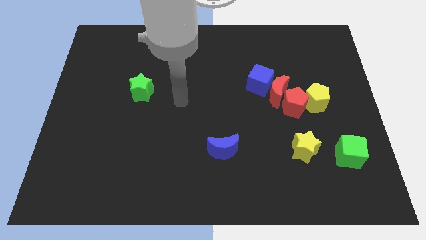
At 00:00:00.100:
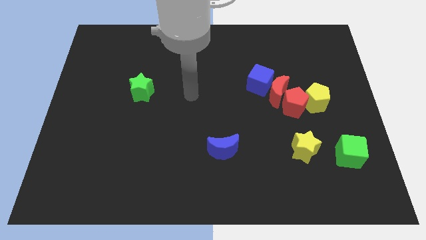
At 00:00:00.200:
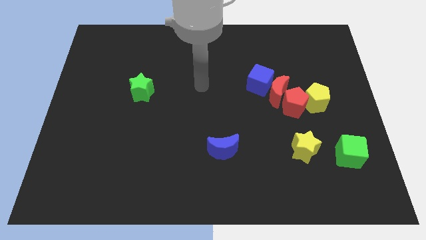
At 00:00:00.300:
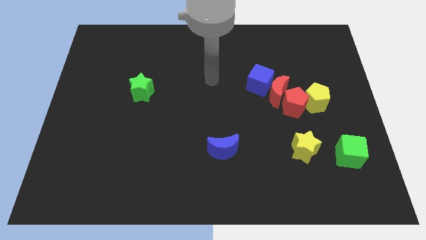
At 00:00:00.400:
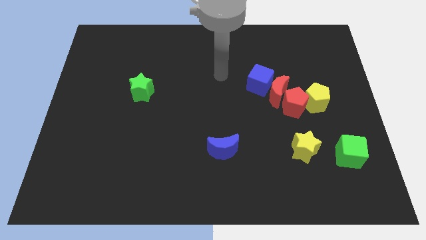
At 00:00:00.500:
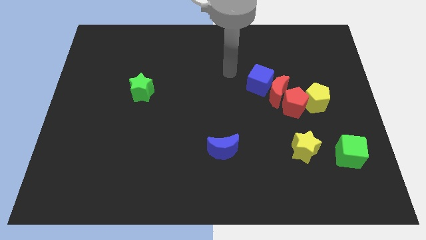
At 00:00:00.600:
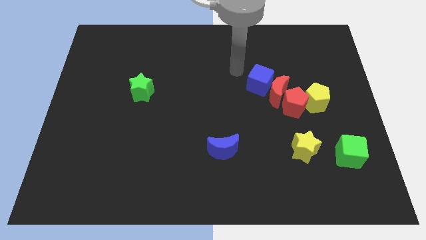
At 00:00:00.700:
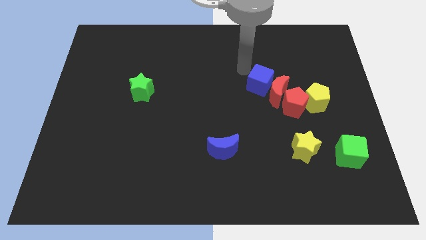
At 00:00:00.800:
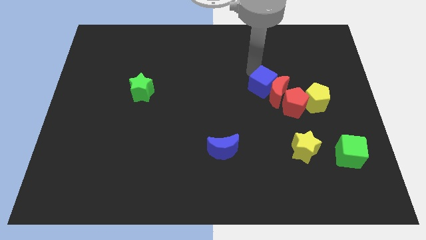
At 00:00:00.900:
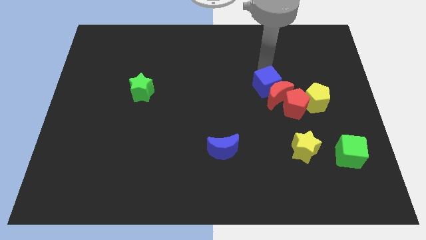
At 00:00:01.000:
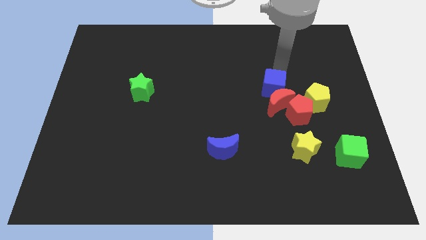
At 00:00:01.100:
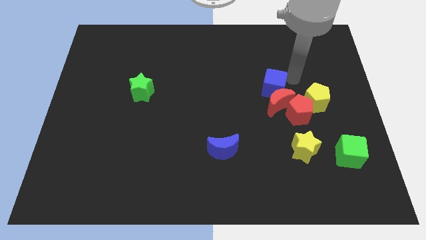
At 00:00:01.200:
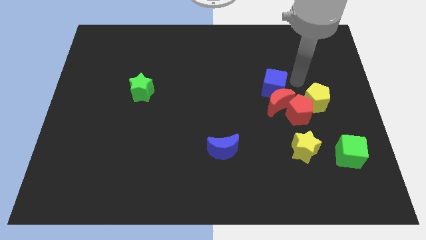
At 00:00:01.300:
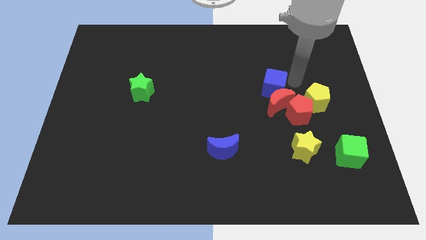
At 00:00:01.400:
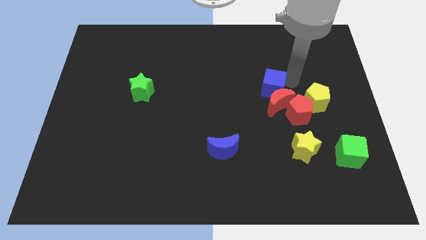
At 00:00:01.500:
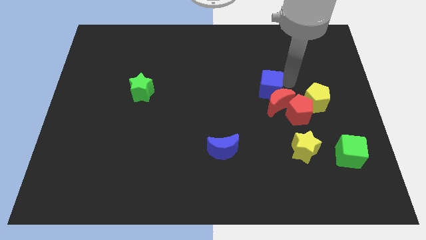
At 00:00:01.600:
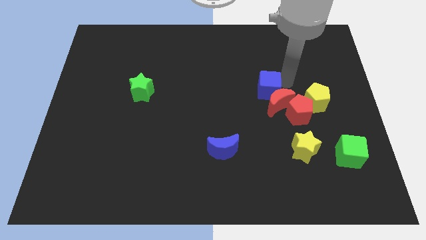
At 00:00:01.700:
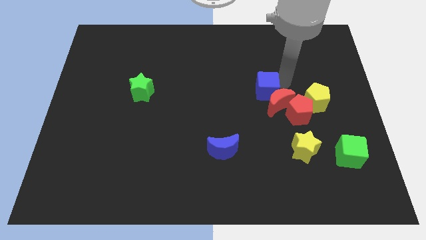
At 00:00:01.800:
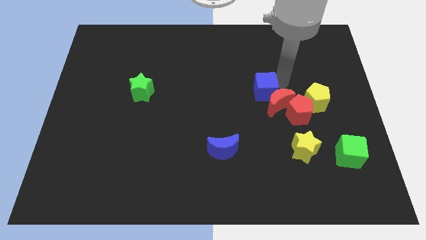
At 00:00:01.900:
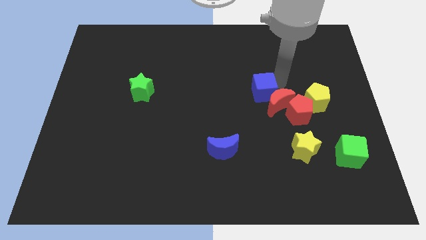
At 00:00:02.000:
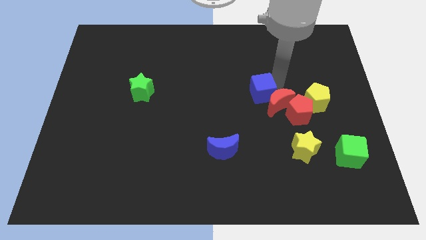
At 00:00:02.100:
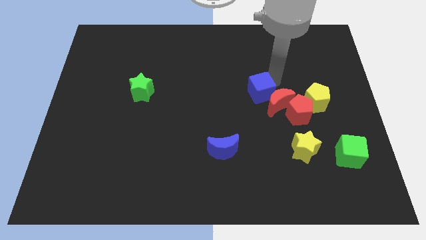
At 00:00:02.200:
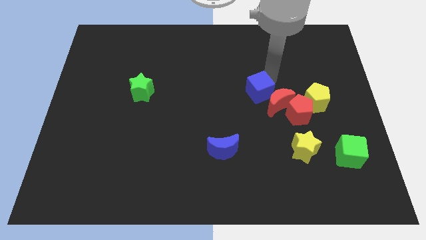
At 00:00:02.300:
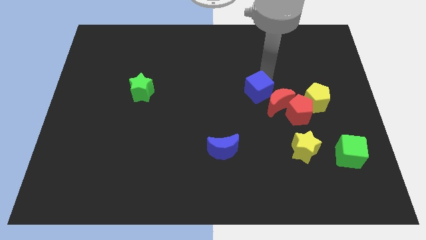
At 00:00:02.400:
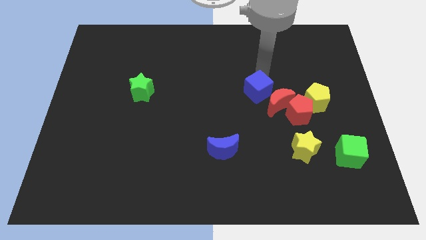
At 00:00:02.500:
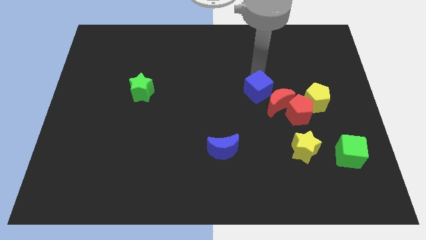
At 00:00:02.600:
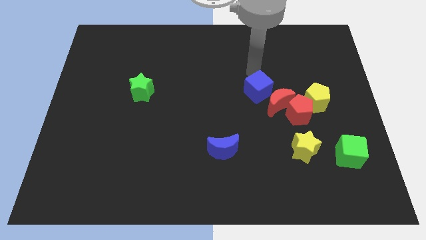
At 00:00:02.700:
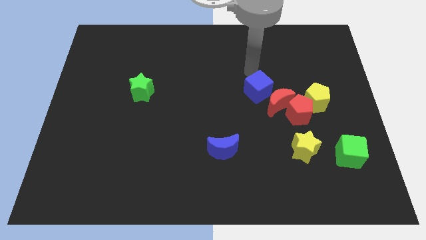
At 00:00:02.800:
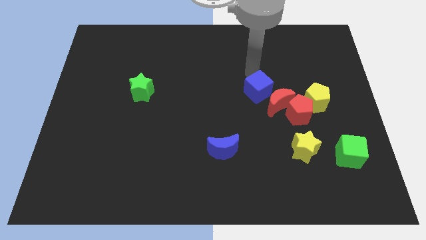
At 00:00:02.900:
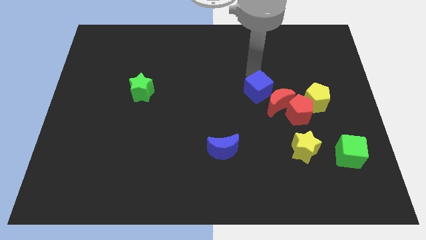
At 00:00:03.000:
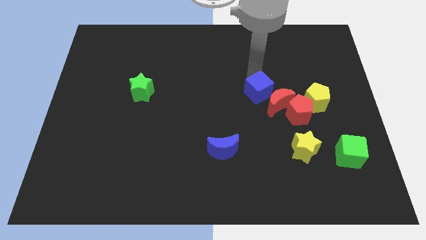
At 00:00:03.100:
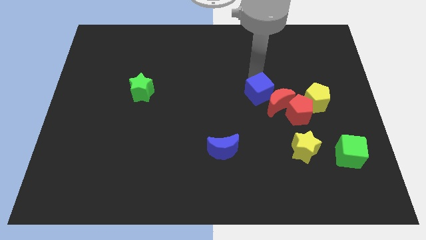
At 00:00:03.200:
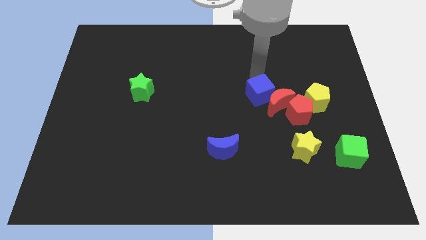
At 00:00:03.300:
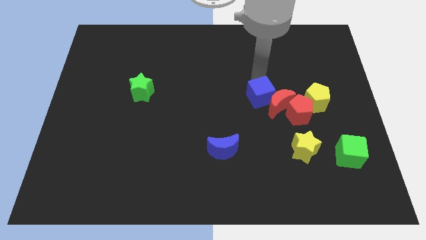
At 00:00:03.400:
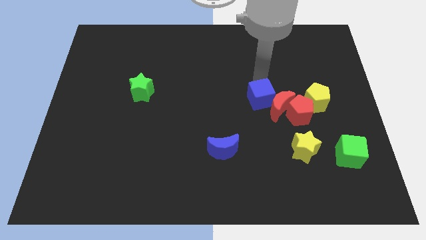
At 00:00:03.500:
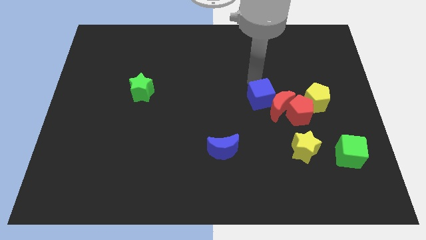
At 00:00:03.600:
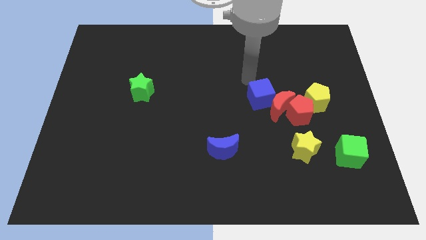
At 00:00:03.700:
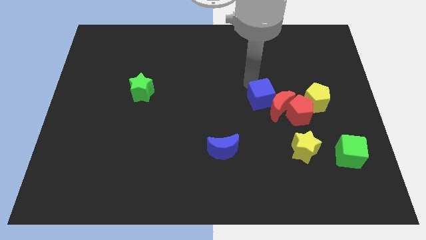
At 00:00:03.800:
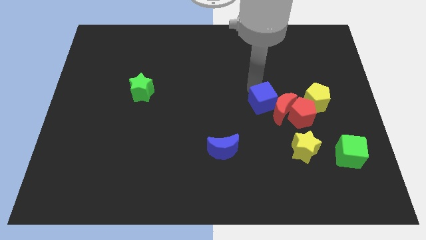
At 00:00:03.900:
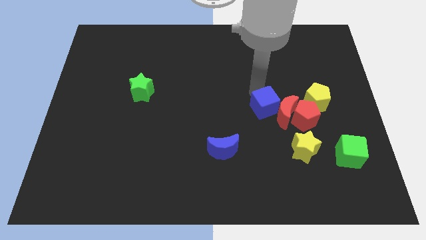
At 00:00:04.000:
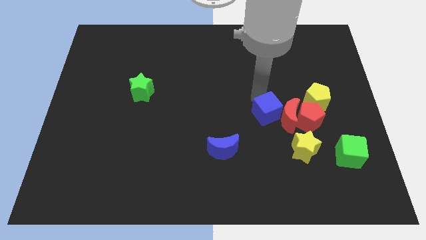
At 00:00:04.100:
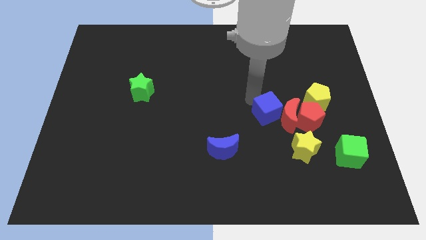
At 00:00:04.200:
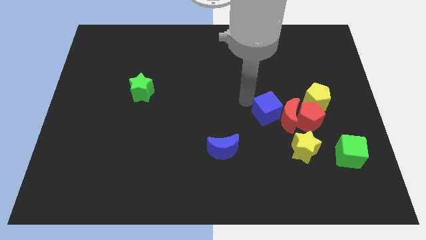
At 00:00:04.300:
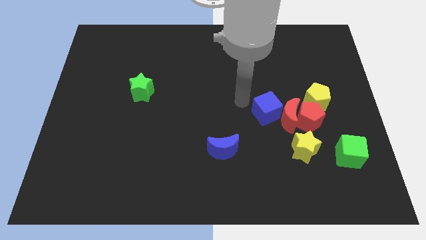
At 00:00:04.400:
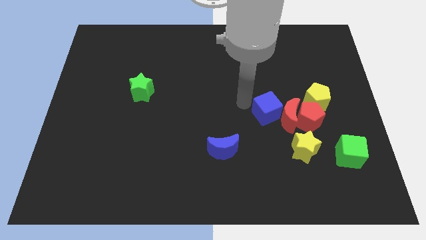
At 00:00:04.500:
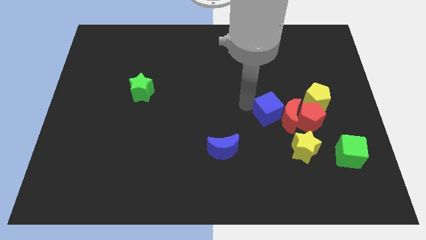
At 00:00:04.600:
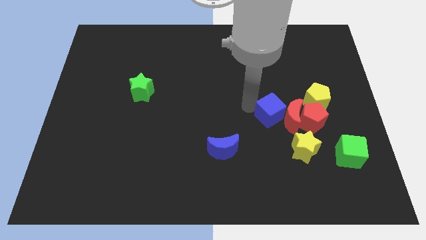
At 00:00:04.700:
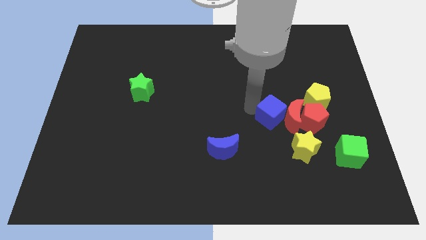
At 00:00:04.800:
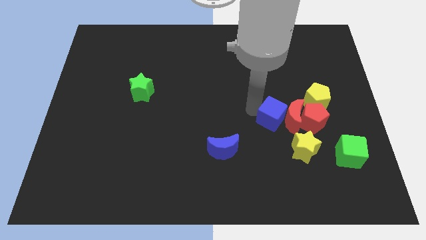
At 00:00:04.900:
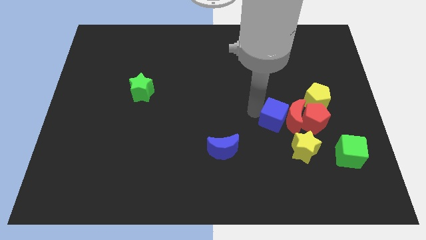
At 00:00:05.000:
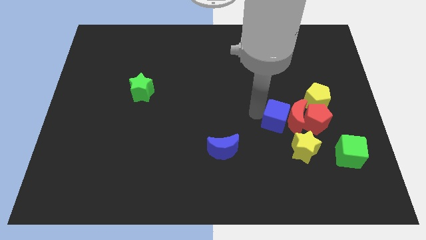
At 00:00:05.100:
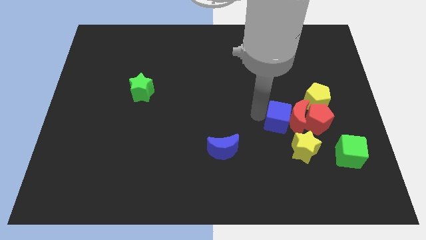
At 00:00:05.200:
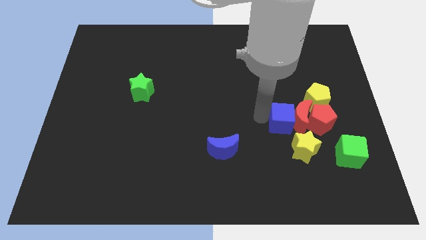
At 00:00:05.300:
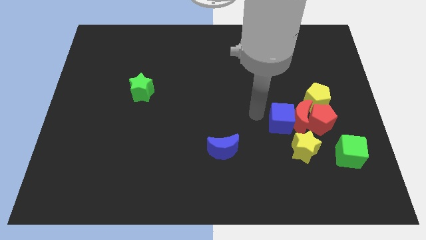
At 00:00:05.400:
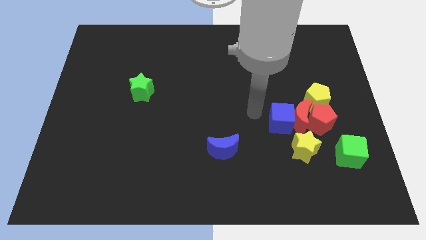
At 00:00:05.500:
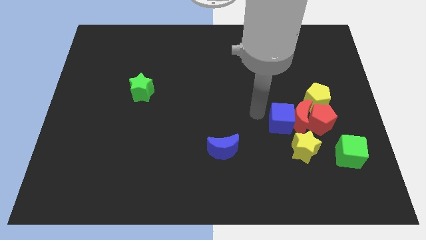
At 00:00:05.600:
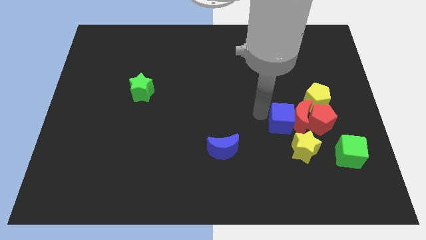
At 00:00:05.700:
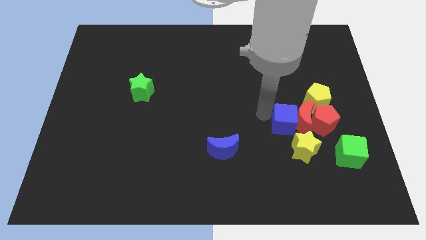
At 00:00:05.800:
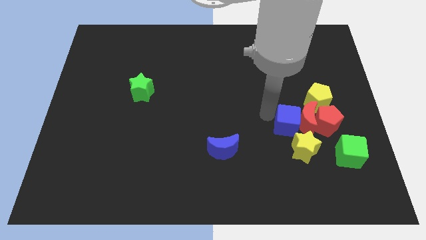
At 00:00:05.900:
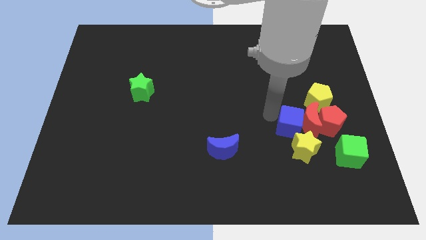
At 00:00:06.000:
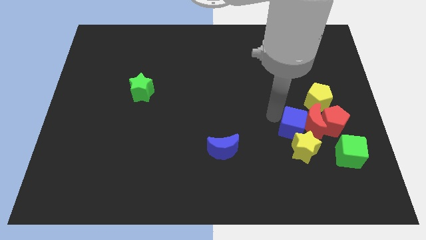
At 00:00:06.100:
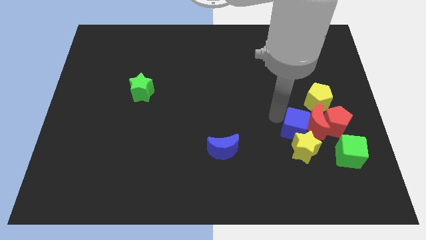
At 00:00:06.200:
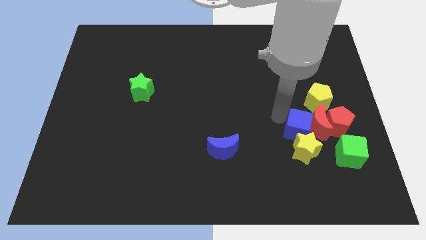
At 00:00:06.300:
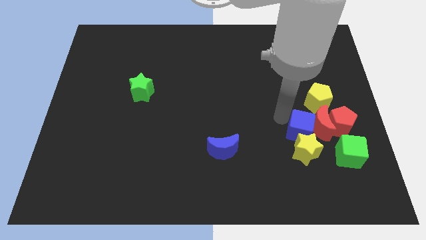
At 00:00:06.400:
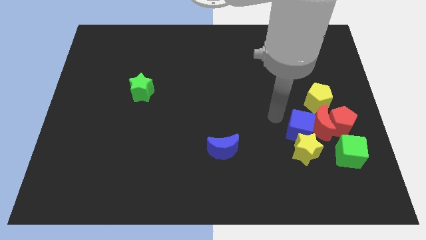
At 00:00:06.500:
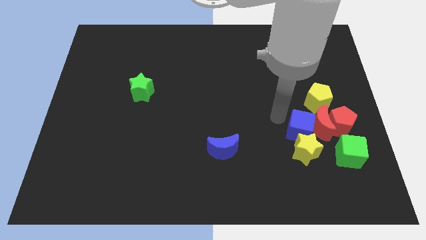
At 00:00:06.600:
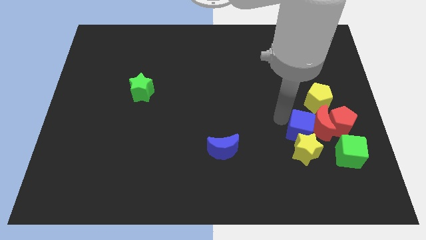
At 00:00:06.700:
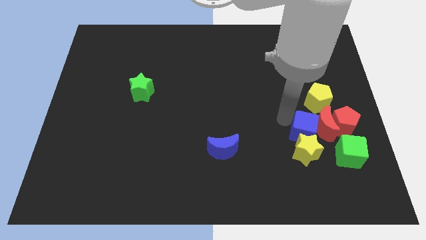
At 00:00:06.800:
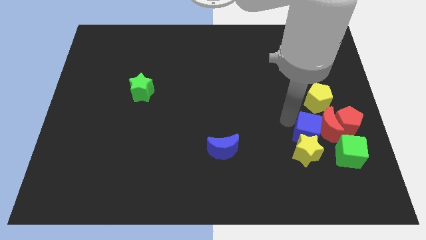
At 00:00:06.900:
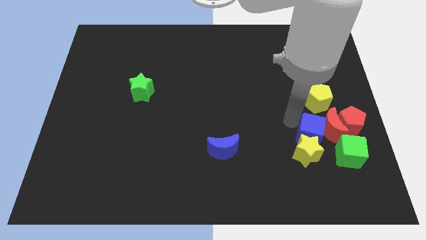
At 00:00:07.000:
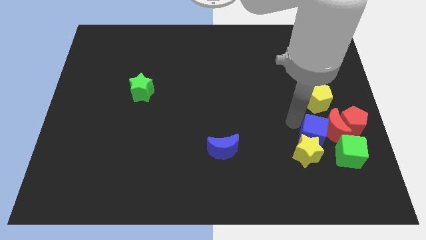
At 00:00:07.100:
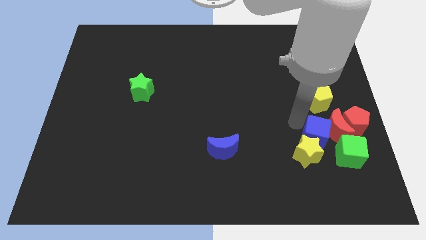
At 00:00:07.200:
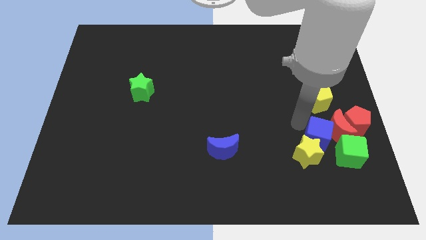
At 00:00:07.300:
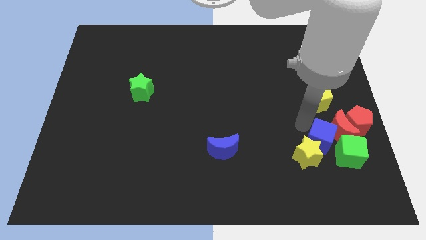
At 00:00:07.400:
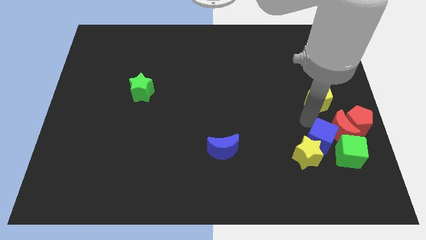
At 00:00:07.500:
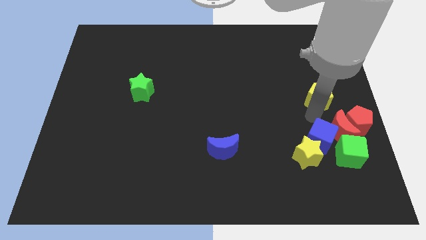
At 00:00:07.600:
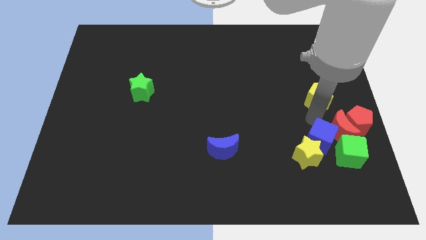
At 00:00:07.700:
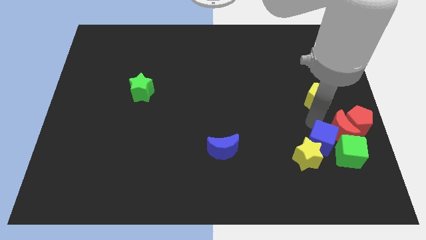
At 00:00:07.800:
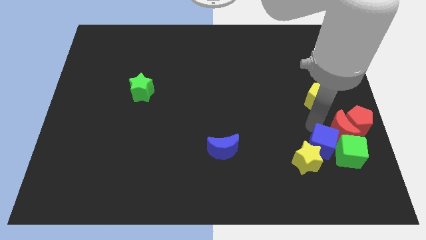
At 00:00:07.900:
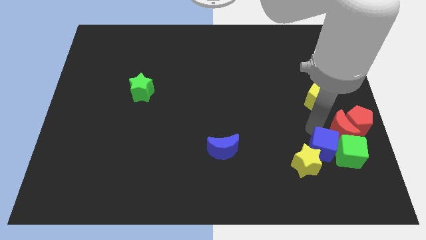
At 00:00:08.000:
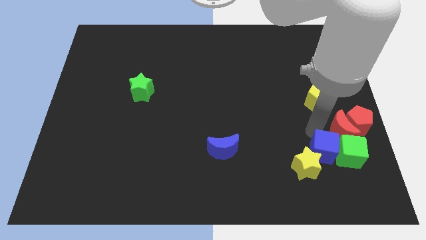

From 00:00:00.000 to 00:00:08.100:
slide the blue cube to the bottom left side of the green cube
